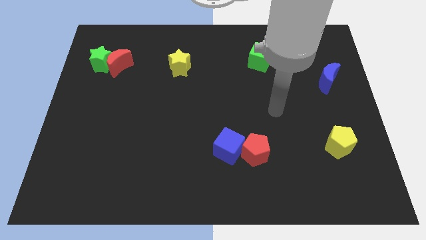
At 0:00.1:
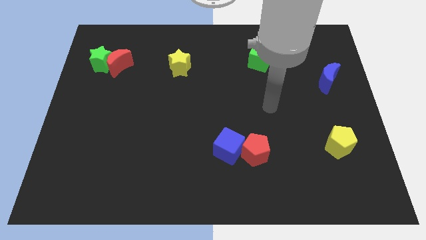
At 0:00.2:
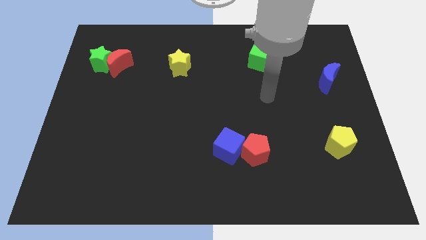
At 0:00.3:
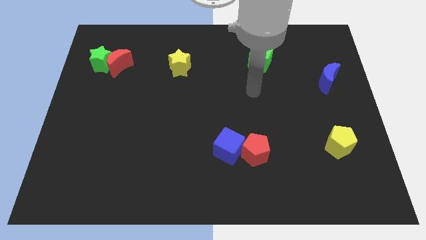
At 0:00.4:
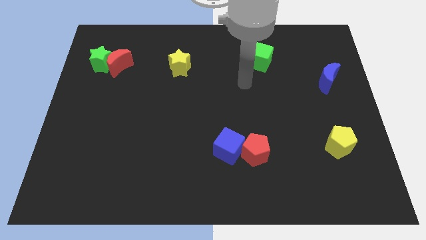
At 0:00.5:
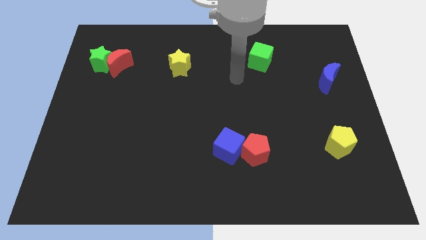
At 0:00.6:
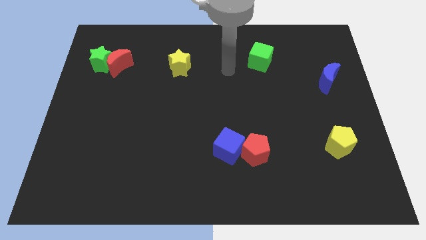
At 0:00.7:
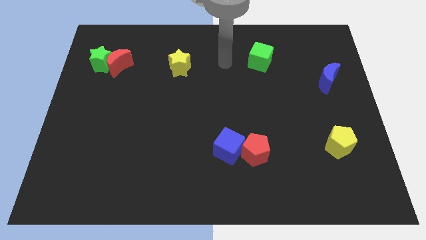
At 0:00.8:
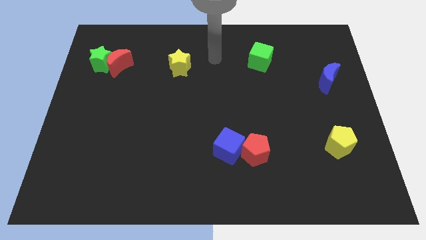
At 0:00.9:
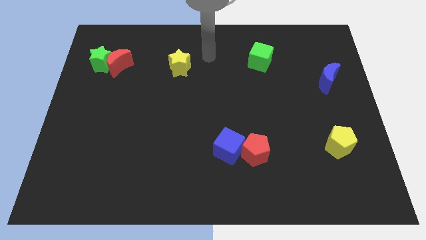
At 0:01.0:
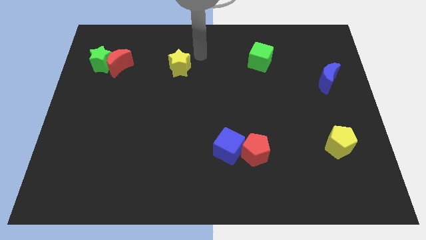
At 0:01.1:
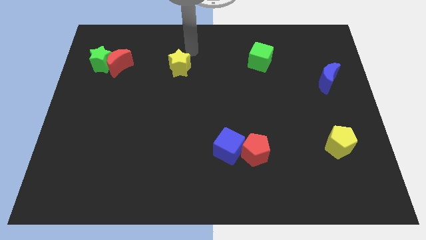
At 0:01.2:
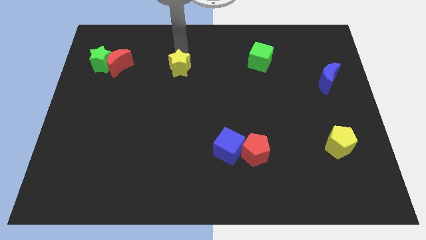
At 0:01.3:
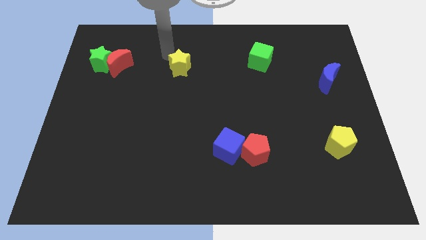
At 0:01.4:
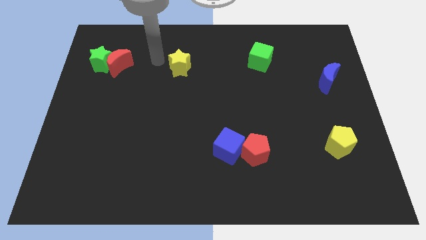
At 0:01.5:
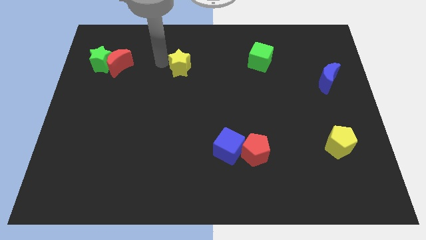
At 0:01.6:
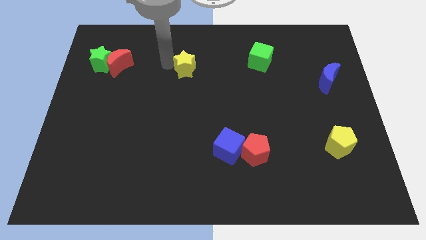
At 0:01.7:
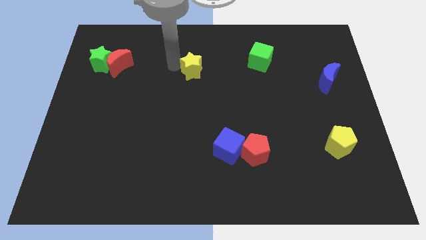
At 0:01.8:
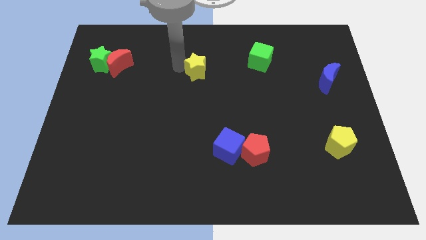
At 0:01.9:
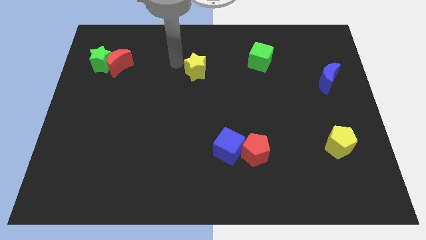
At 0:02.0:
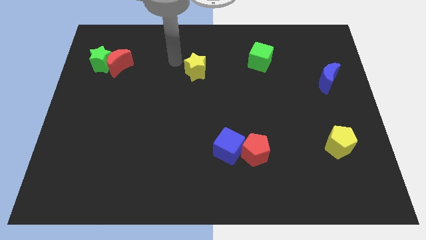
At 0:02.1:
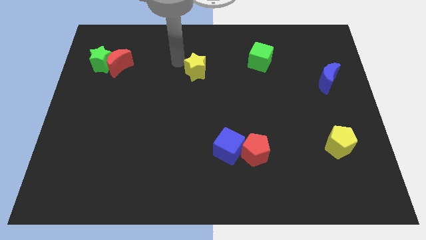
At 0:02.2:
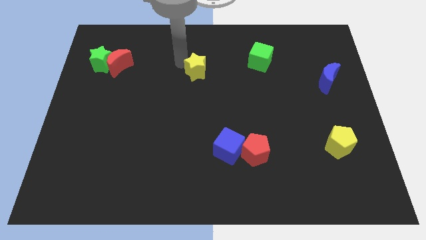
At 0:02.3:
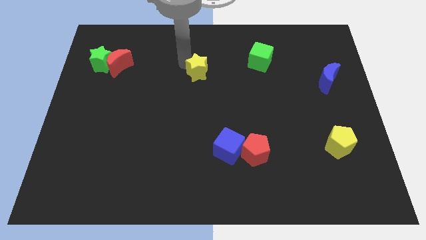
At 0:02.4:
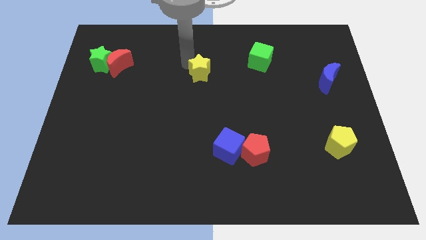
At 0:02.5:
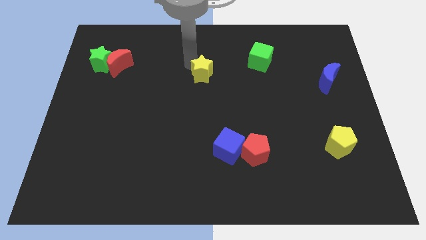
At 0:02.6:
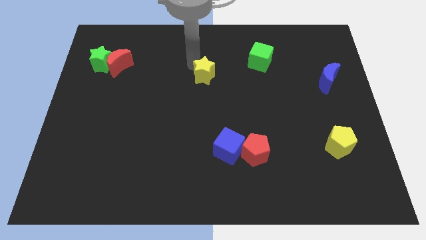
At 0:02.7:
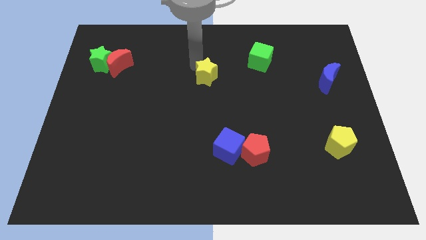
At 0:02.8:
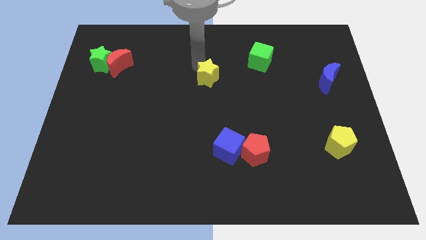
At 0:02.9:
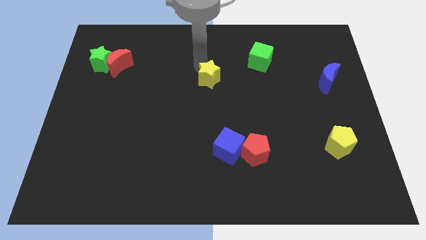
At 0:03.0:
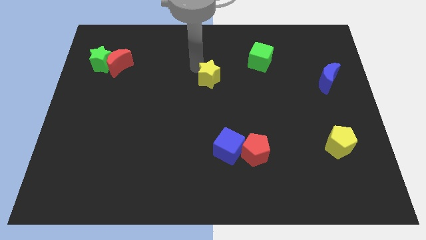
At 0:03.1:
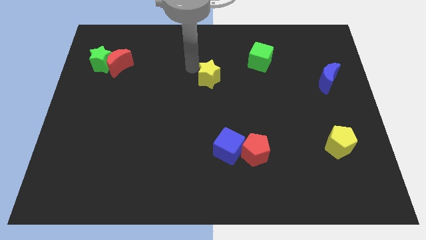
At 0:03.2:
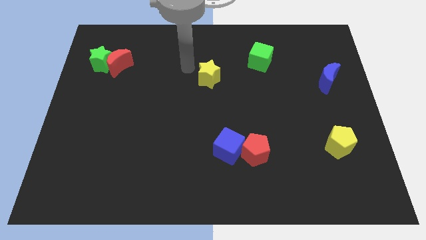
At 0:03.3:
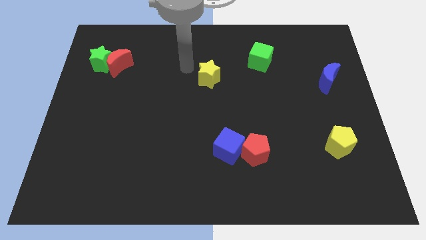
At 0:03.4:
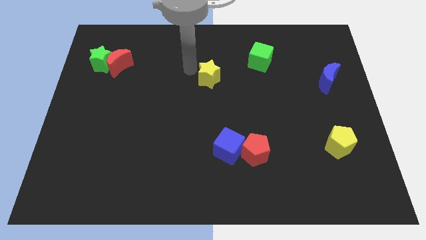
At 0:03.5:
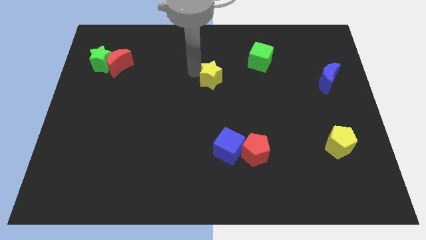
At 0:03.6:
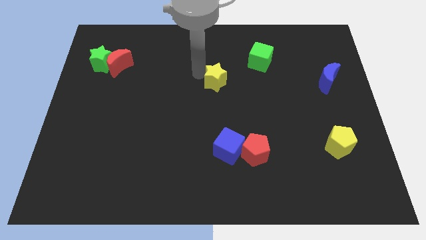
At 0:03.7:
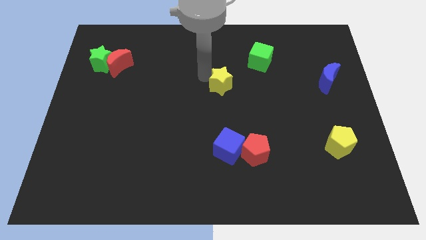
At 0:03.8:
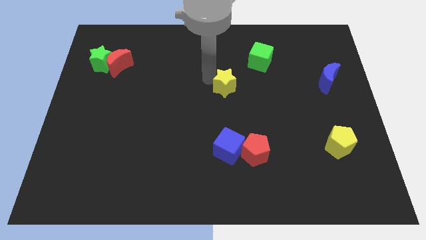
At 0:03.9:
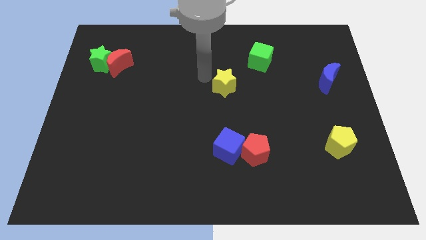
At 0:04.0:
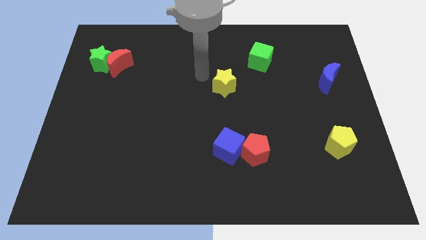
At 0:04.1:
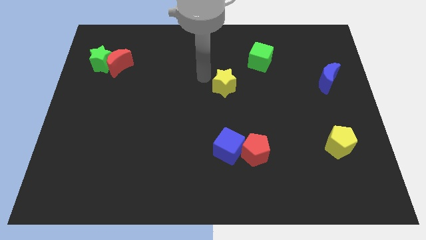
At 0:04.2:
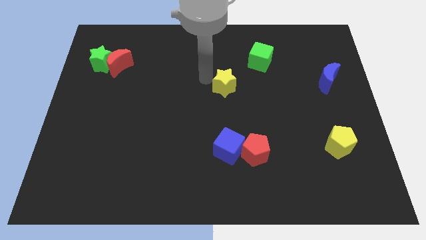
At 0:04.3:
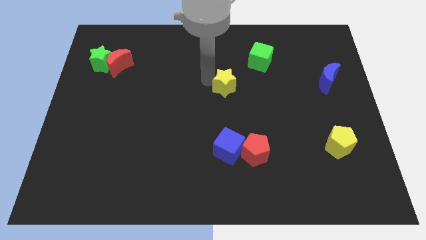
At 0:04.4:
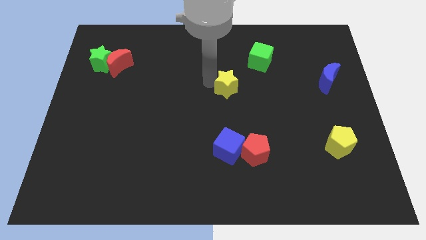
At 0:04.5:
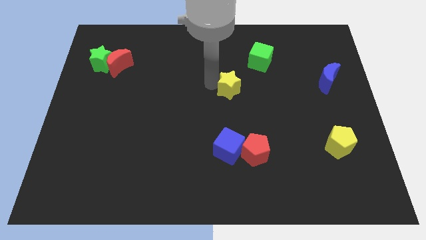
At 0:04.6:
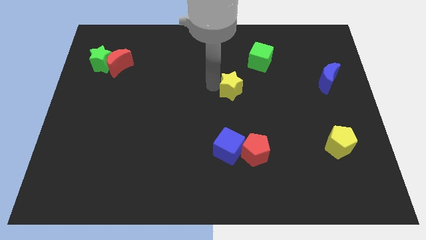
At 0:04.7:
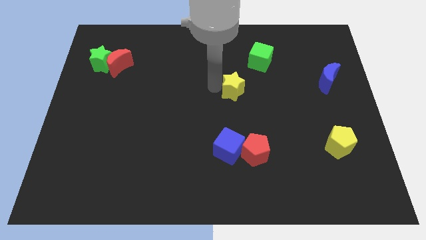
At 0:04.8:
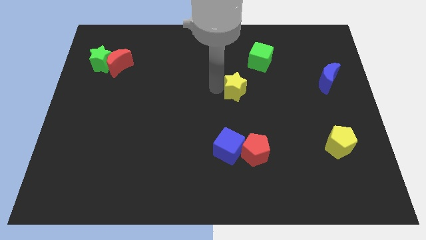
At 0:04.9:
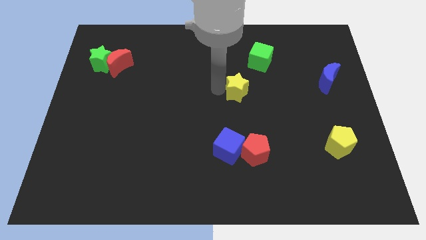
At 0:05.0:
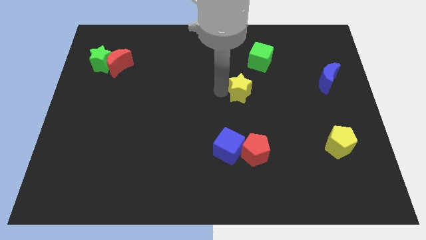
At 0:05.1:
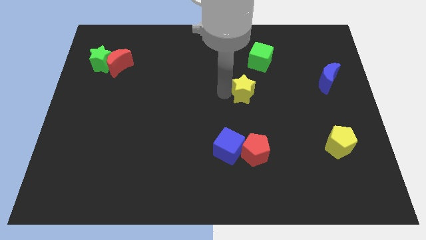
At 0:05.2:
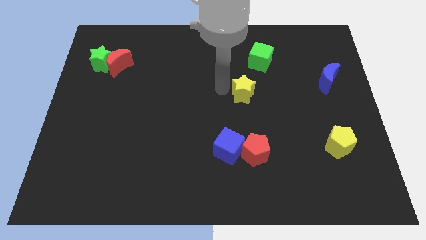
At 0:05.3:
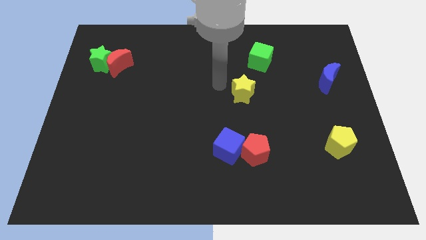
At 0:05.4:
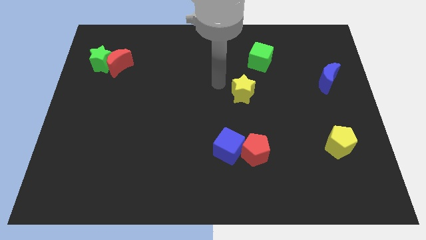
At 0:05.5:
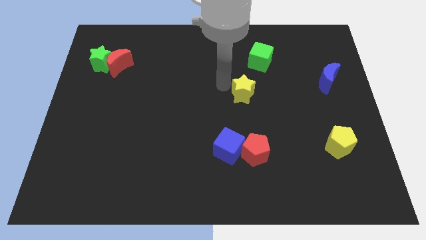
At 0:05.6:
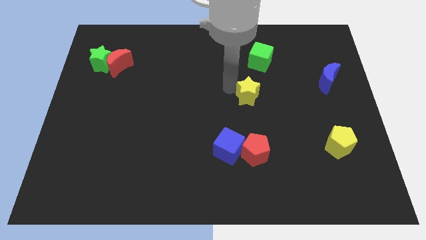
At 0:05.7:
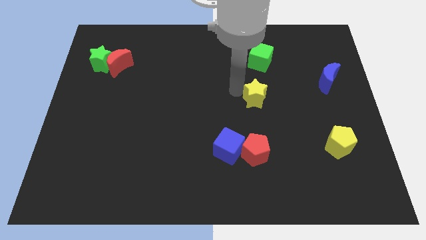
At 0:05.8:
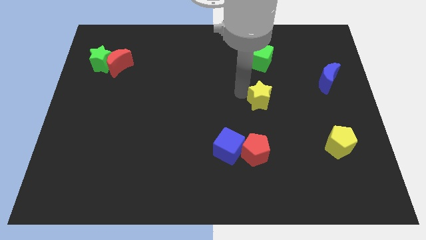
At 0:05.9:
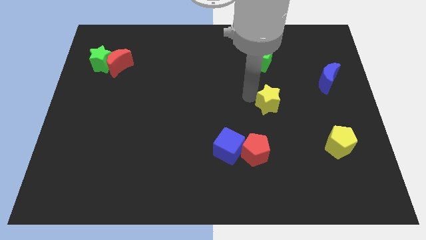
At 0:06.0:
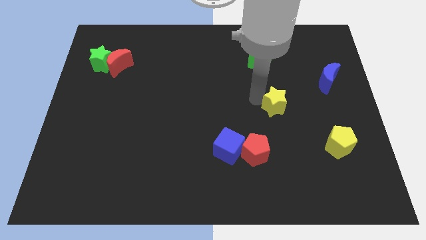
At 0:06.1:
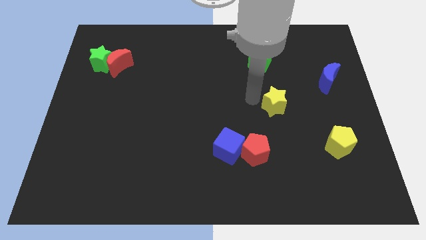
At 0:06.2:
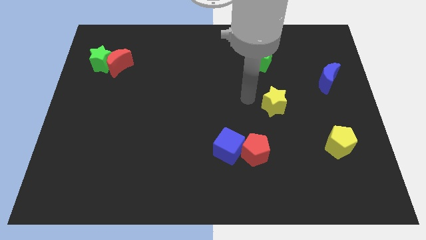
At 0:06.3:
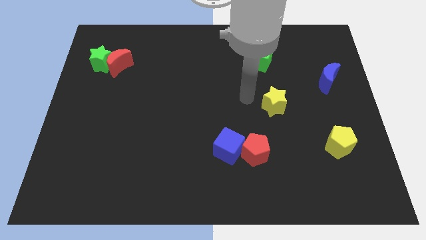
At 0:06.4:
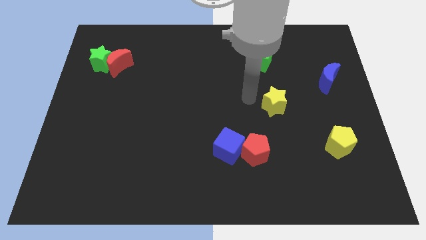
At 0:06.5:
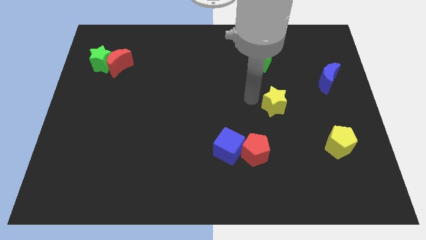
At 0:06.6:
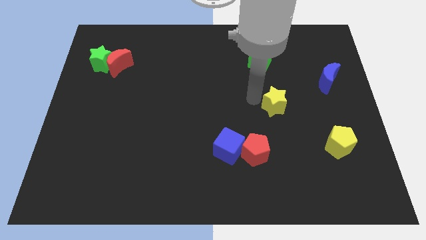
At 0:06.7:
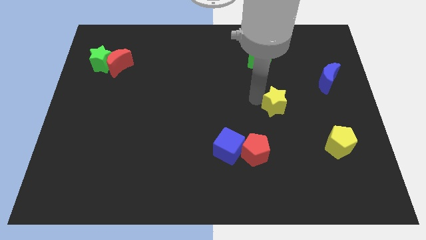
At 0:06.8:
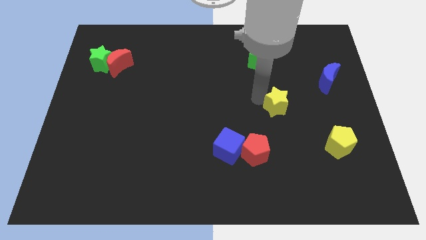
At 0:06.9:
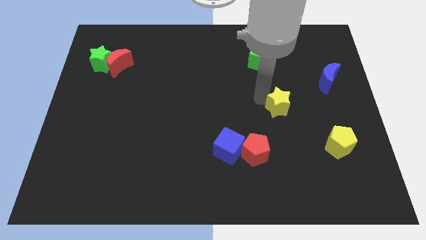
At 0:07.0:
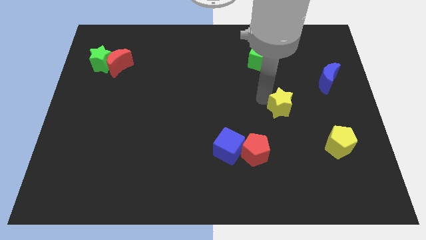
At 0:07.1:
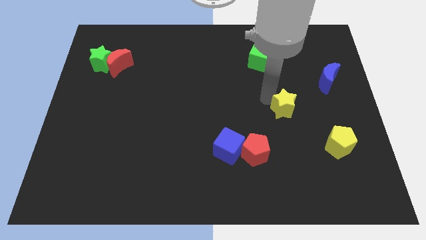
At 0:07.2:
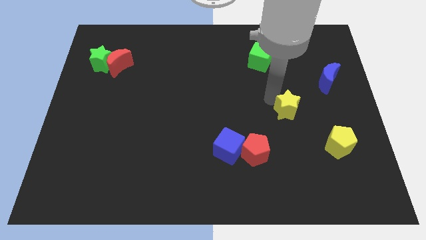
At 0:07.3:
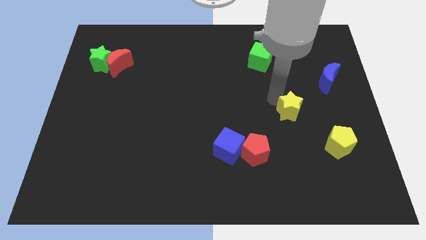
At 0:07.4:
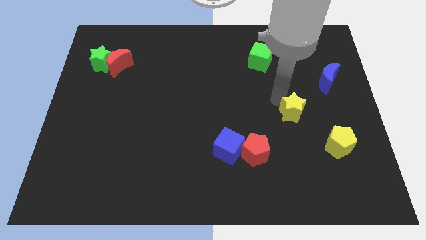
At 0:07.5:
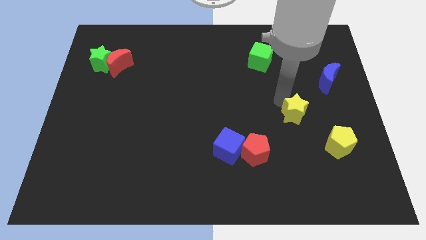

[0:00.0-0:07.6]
slide the yellow star to the top left of the yellow pentagon
